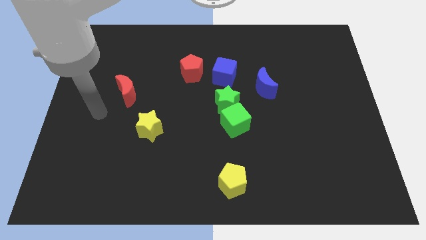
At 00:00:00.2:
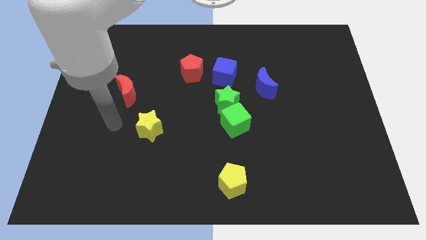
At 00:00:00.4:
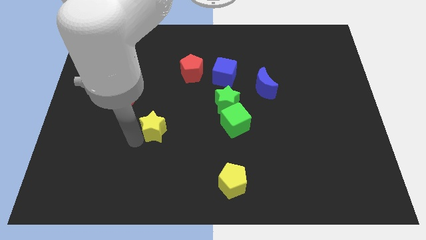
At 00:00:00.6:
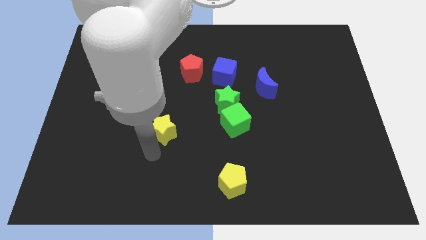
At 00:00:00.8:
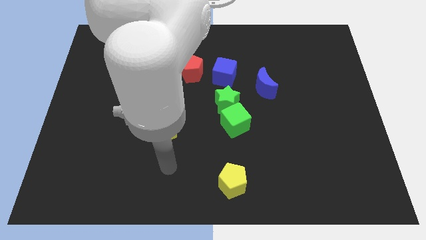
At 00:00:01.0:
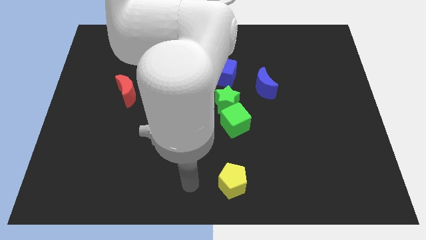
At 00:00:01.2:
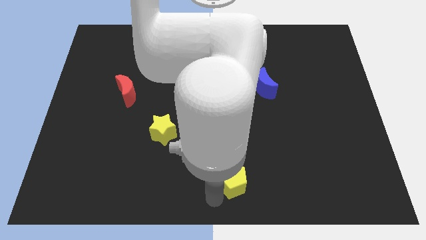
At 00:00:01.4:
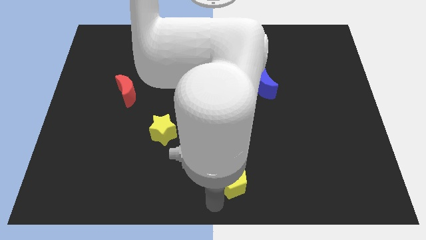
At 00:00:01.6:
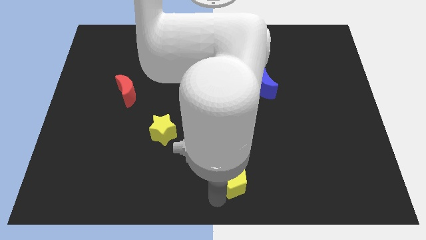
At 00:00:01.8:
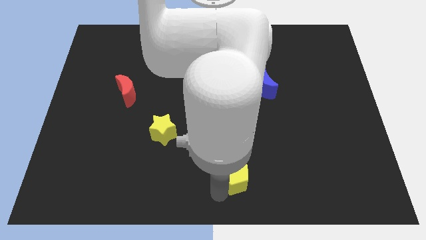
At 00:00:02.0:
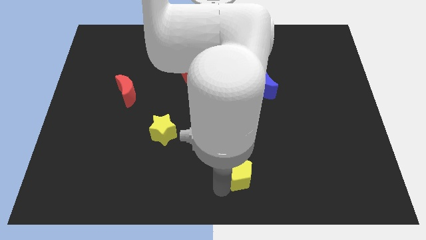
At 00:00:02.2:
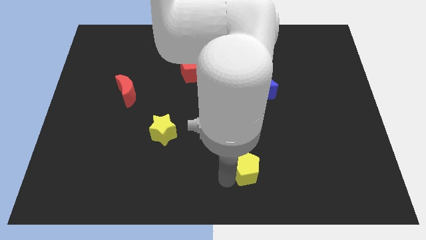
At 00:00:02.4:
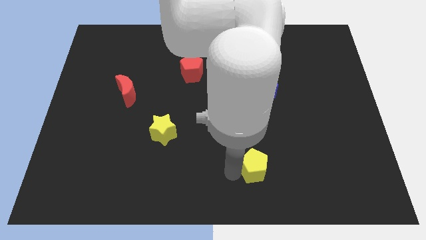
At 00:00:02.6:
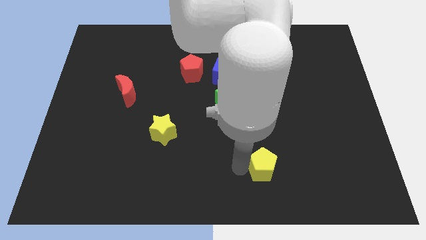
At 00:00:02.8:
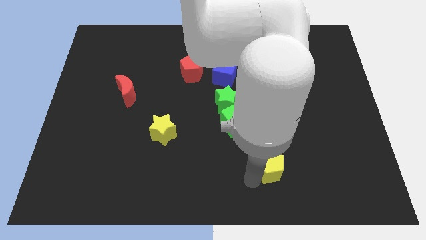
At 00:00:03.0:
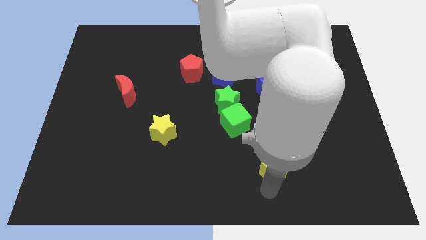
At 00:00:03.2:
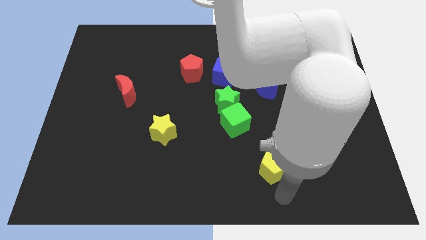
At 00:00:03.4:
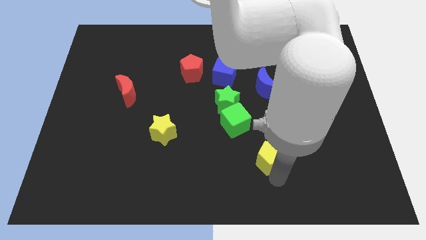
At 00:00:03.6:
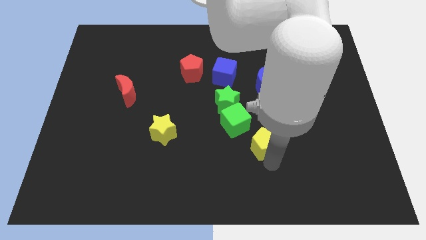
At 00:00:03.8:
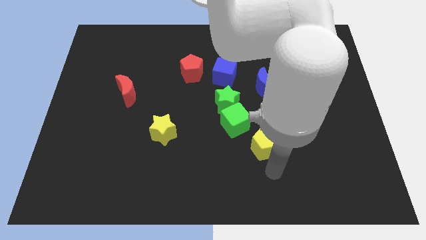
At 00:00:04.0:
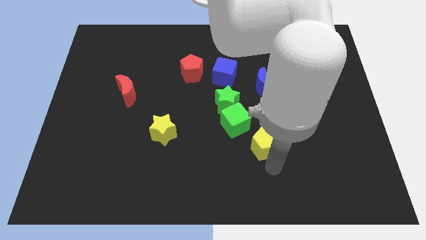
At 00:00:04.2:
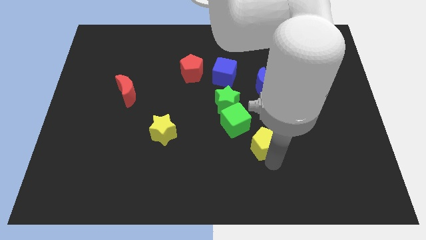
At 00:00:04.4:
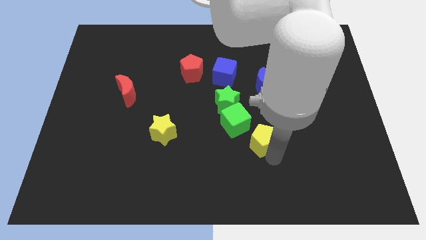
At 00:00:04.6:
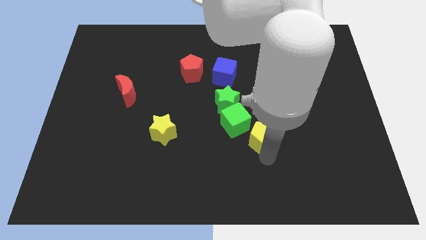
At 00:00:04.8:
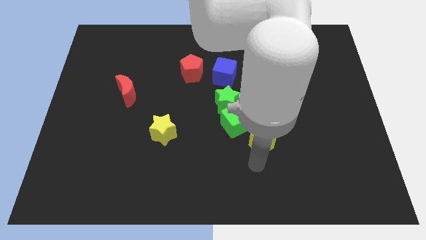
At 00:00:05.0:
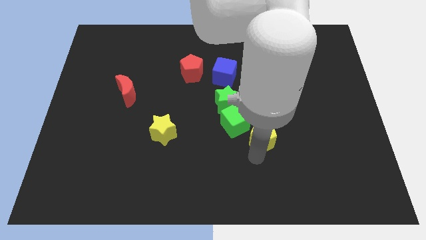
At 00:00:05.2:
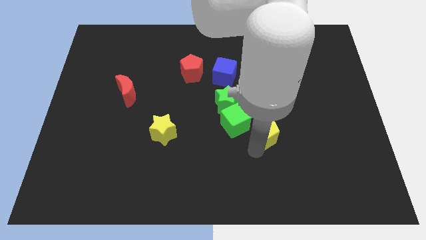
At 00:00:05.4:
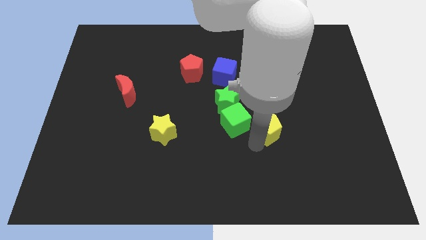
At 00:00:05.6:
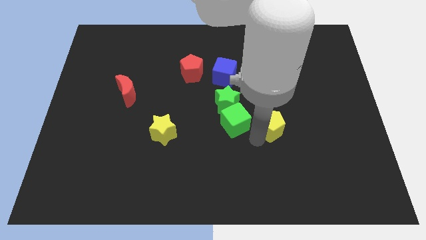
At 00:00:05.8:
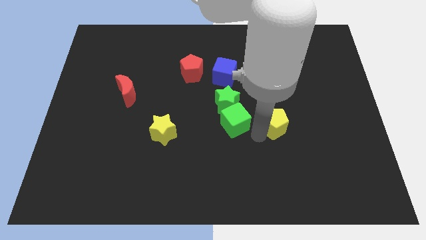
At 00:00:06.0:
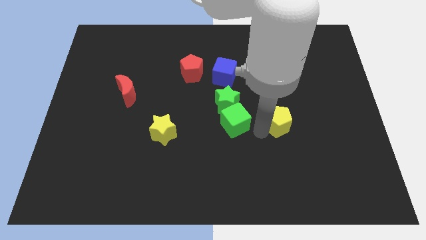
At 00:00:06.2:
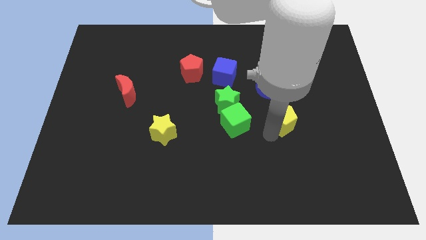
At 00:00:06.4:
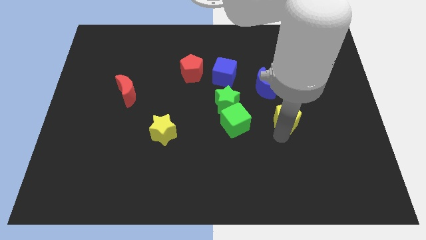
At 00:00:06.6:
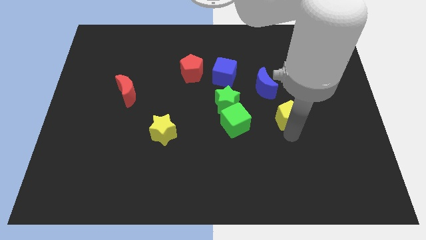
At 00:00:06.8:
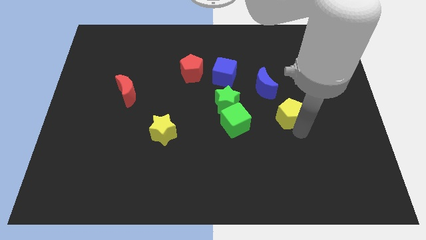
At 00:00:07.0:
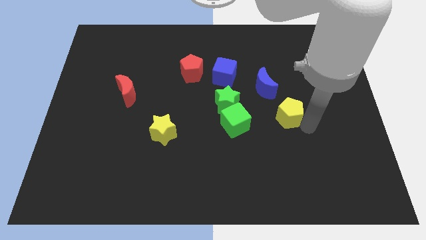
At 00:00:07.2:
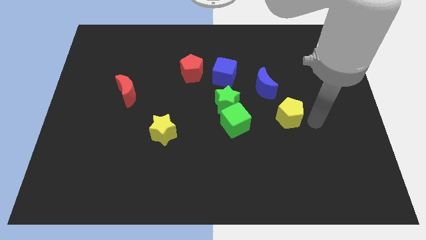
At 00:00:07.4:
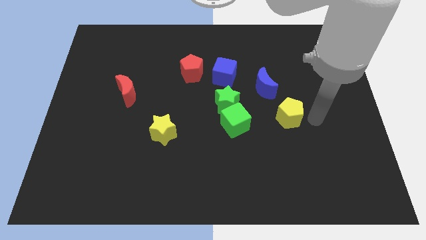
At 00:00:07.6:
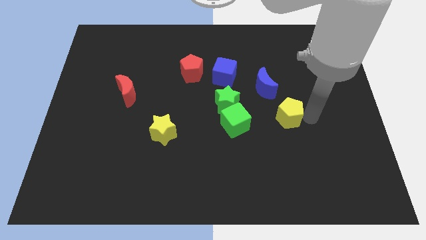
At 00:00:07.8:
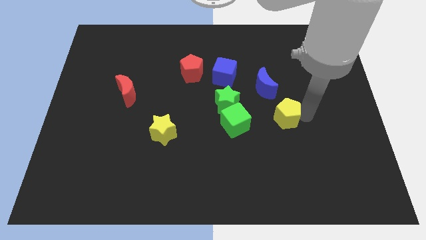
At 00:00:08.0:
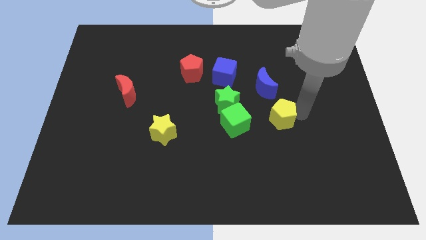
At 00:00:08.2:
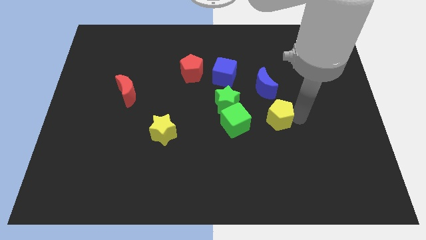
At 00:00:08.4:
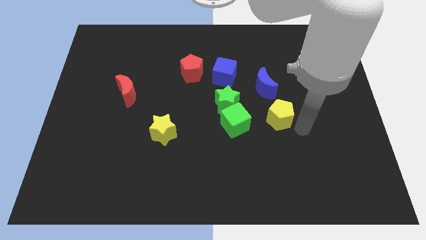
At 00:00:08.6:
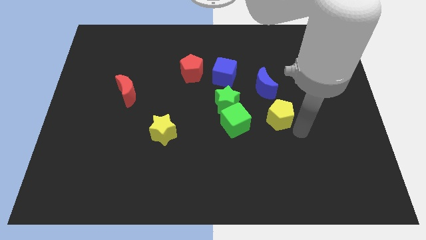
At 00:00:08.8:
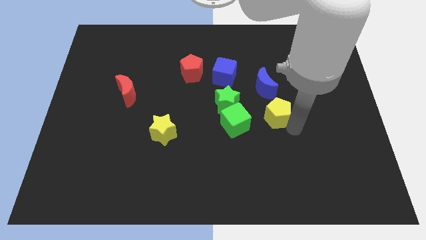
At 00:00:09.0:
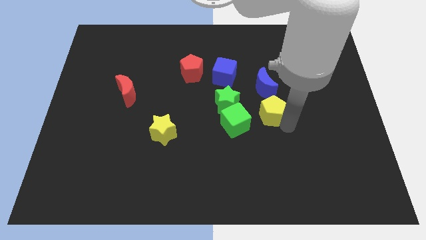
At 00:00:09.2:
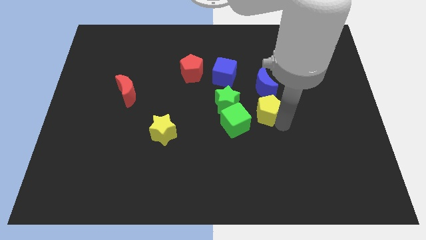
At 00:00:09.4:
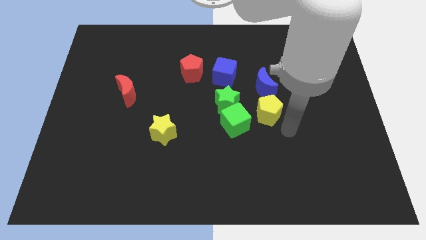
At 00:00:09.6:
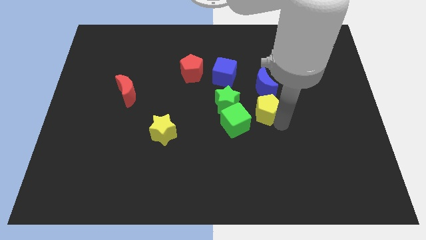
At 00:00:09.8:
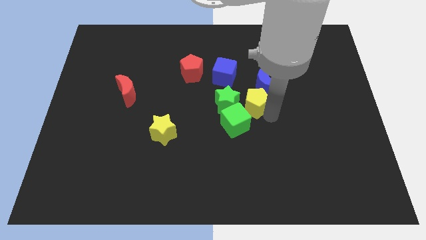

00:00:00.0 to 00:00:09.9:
slide the yellow pentagon diagonally down and to the right of the blue cube

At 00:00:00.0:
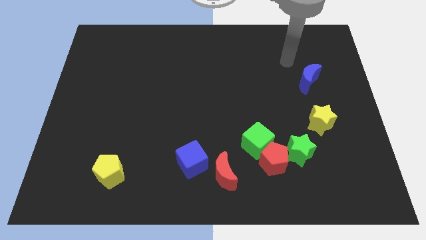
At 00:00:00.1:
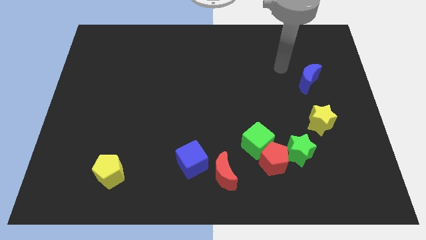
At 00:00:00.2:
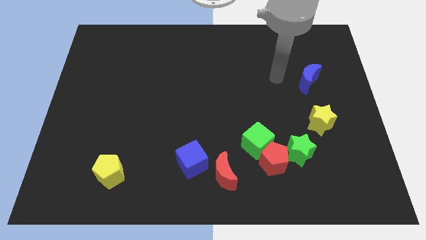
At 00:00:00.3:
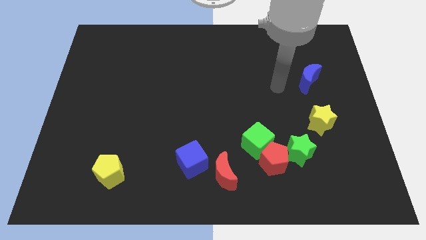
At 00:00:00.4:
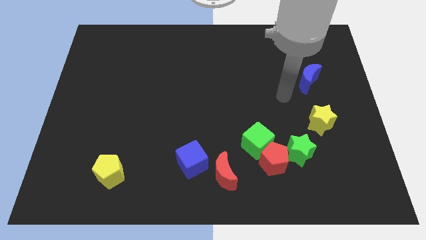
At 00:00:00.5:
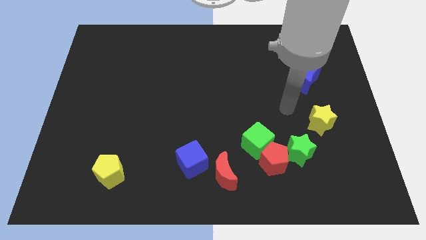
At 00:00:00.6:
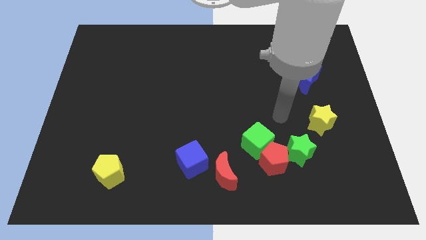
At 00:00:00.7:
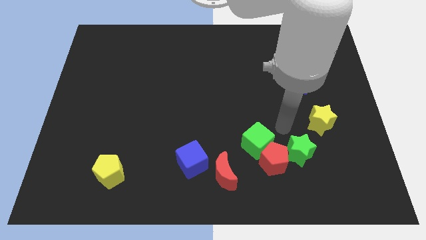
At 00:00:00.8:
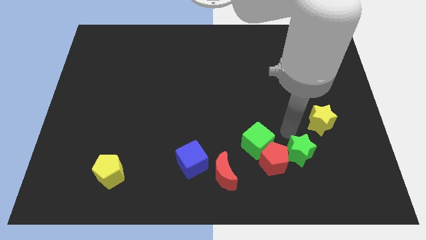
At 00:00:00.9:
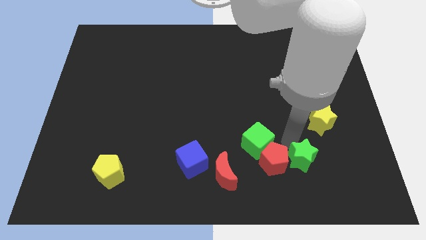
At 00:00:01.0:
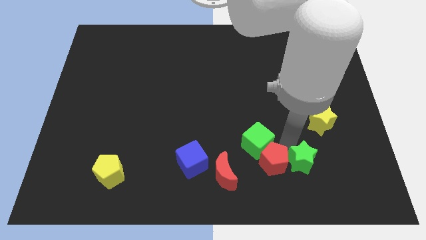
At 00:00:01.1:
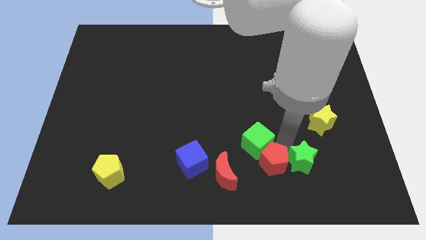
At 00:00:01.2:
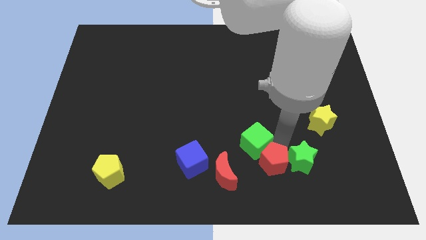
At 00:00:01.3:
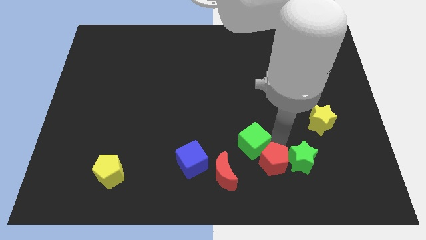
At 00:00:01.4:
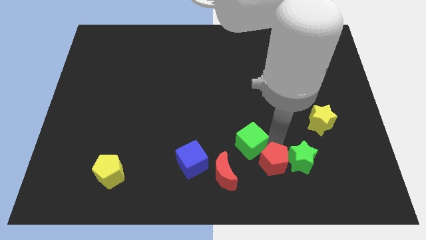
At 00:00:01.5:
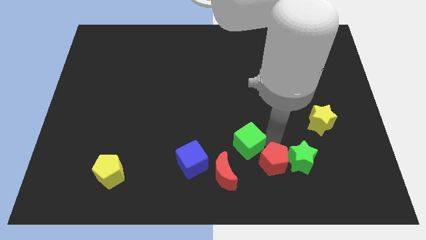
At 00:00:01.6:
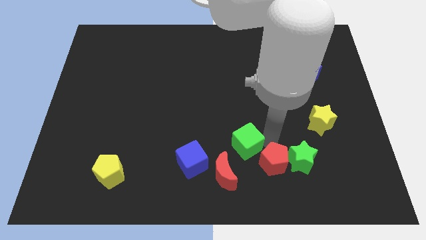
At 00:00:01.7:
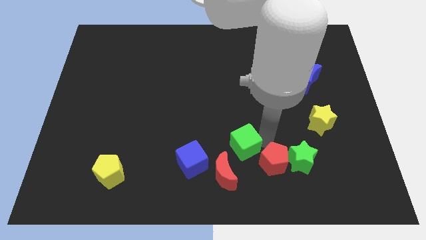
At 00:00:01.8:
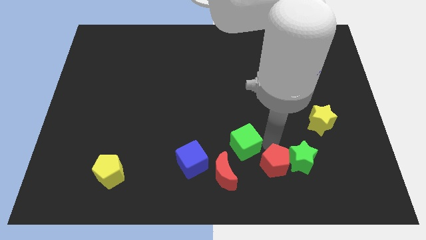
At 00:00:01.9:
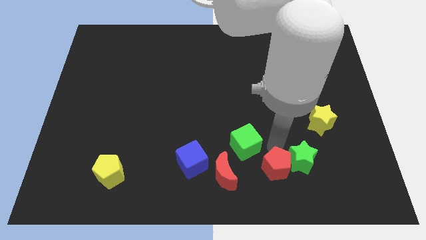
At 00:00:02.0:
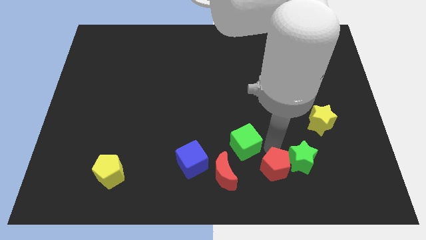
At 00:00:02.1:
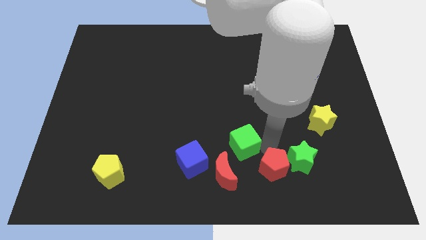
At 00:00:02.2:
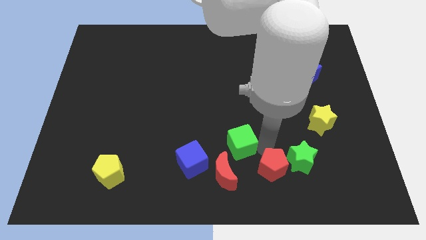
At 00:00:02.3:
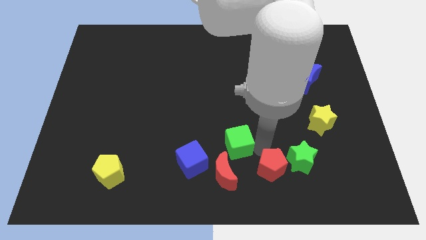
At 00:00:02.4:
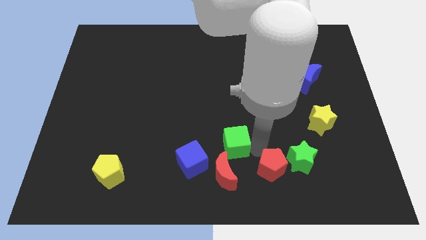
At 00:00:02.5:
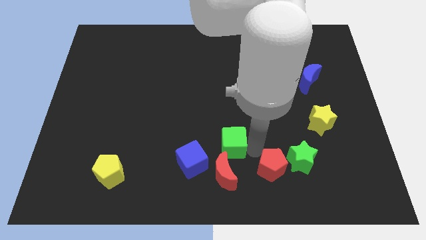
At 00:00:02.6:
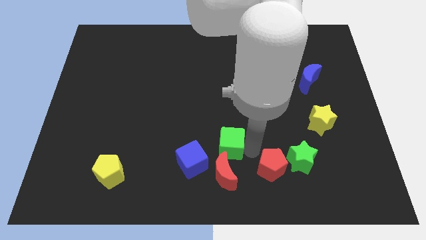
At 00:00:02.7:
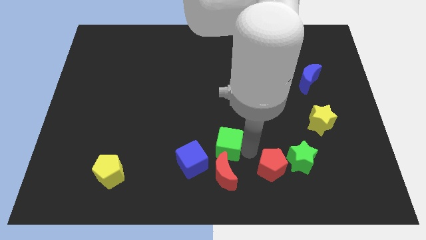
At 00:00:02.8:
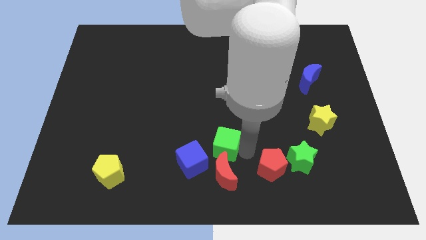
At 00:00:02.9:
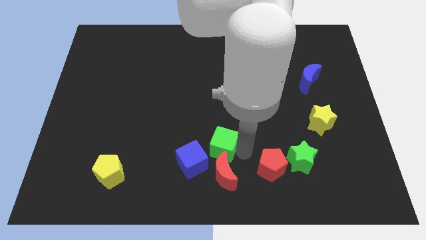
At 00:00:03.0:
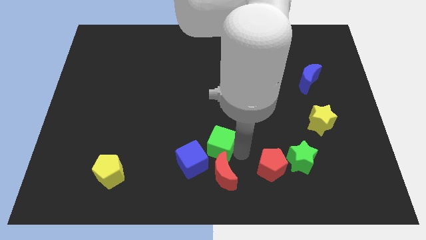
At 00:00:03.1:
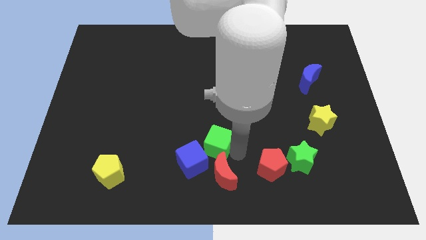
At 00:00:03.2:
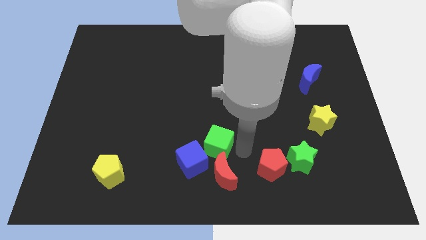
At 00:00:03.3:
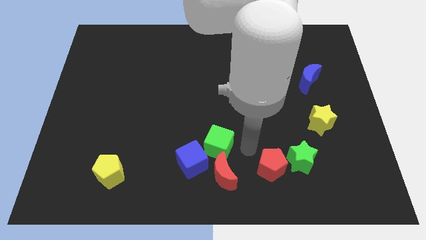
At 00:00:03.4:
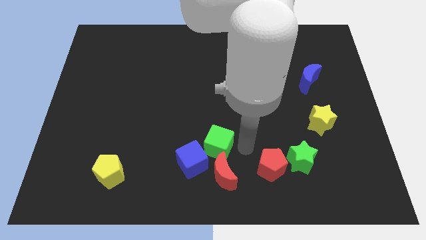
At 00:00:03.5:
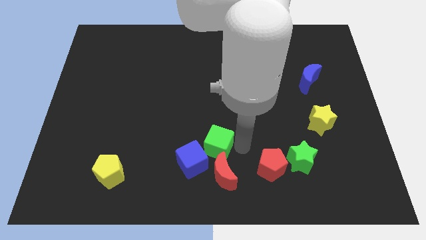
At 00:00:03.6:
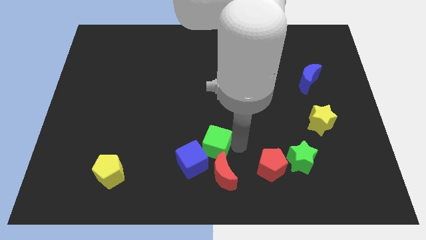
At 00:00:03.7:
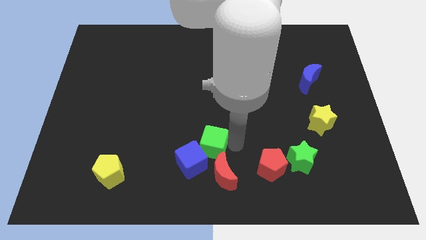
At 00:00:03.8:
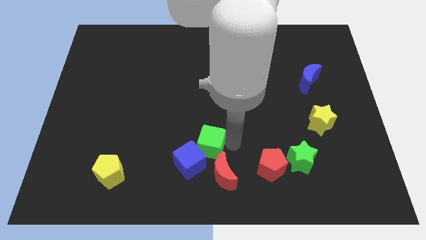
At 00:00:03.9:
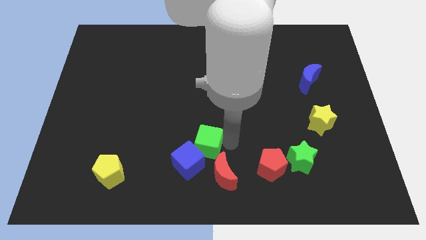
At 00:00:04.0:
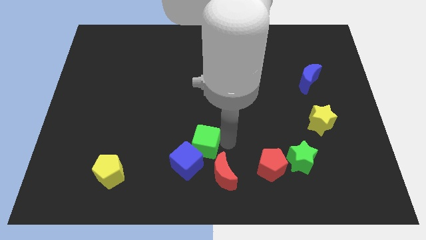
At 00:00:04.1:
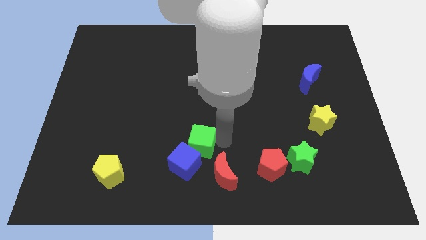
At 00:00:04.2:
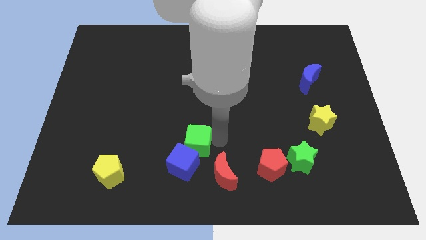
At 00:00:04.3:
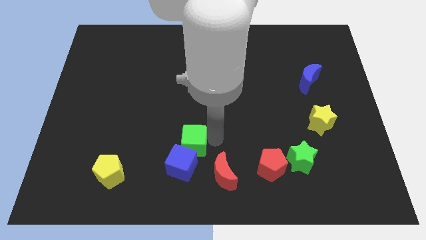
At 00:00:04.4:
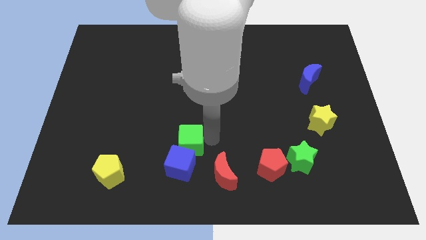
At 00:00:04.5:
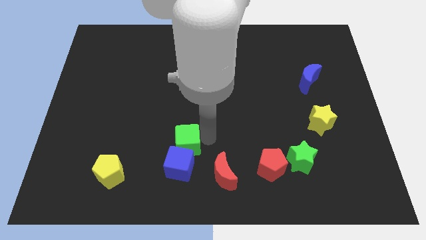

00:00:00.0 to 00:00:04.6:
put the green cube to the top left side of the blue cube
